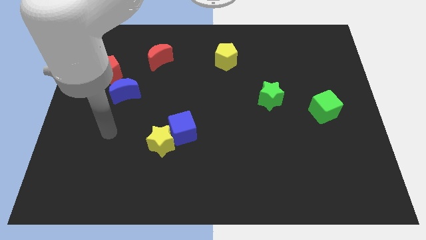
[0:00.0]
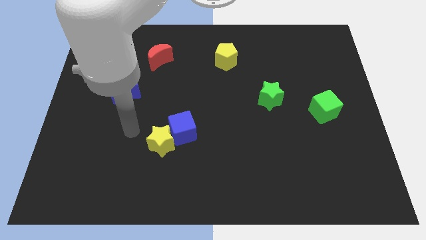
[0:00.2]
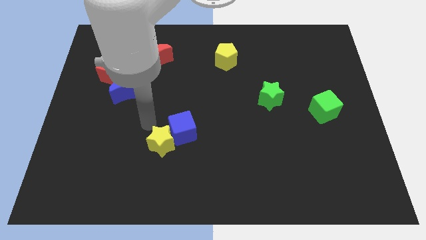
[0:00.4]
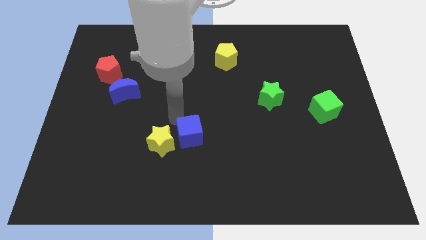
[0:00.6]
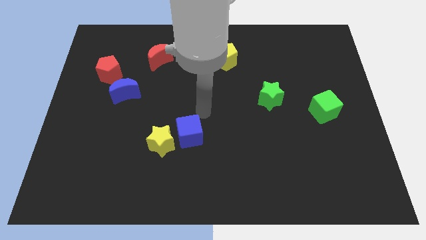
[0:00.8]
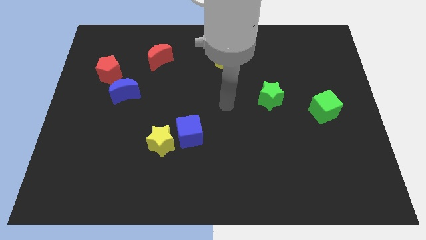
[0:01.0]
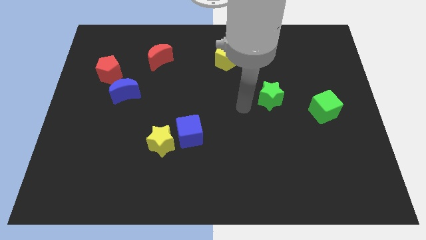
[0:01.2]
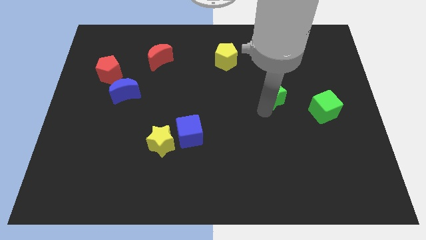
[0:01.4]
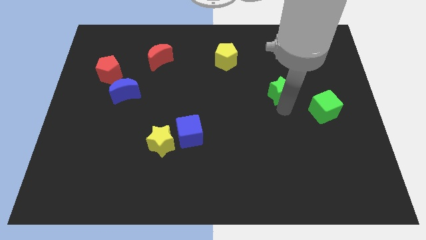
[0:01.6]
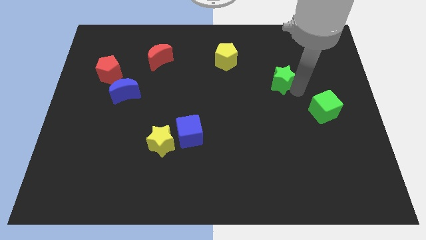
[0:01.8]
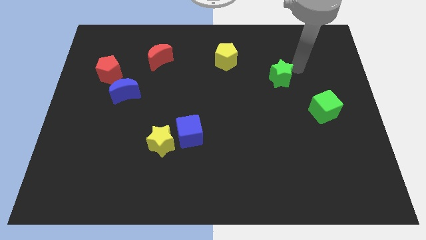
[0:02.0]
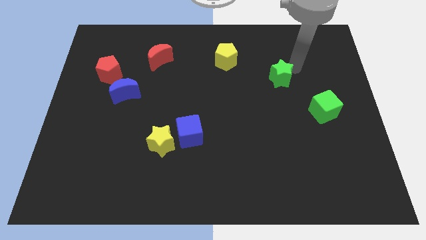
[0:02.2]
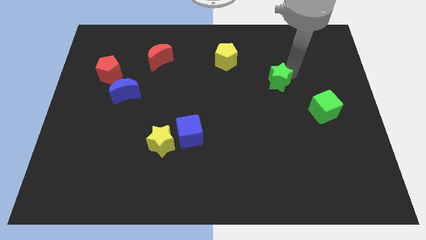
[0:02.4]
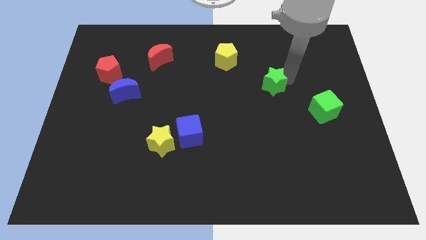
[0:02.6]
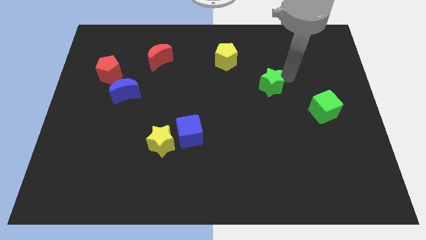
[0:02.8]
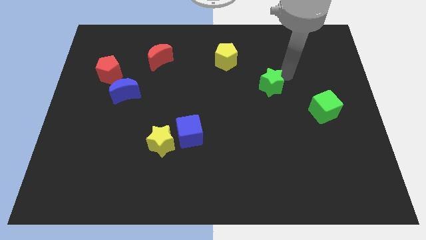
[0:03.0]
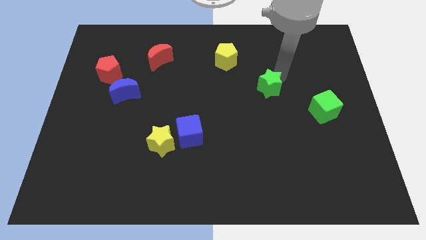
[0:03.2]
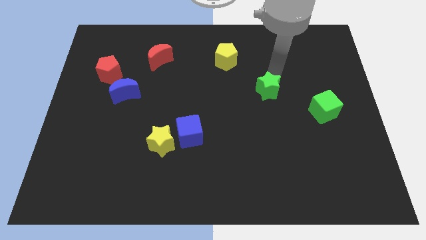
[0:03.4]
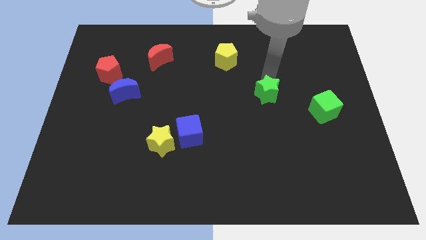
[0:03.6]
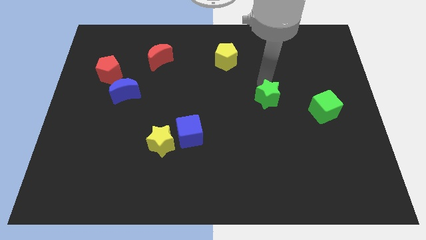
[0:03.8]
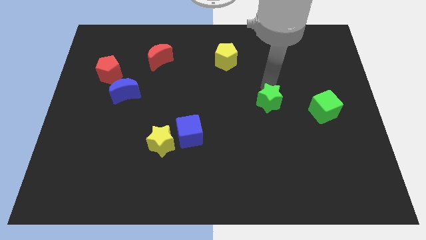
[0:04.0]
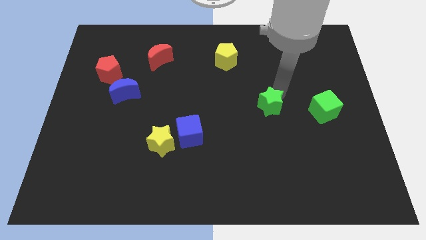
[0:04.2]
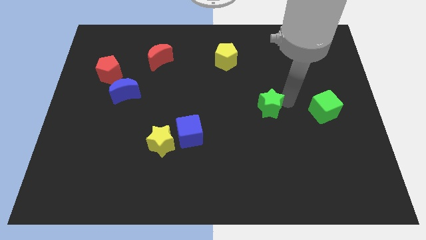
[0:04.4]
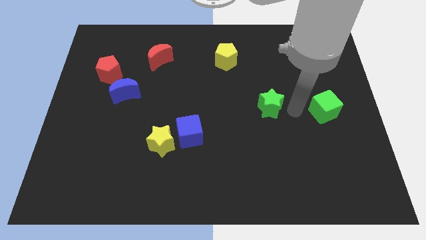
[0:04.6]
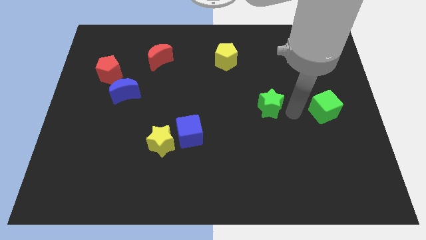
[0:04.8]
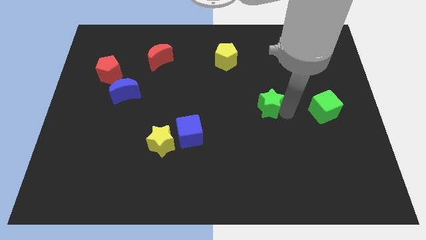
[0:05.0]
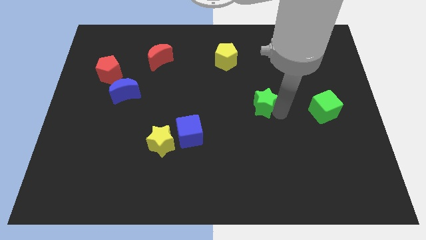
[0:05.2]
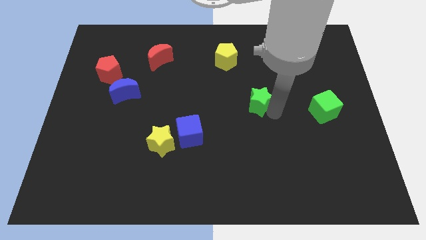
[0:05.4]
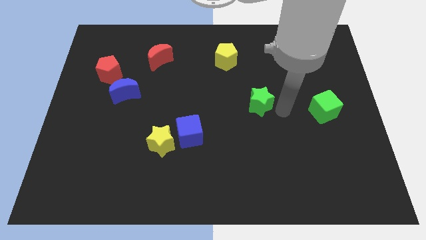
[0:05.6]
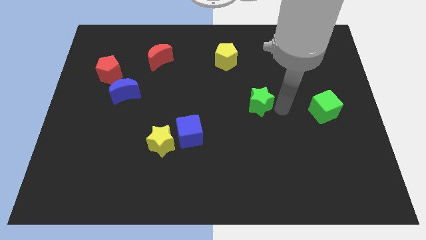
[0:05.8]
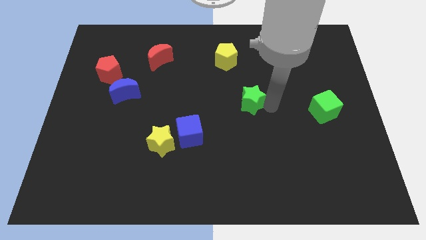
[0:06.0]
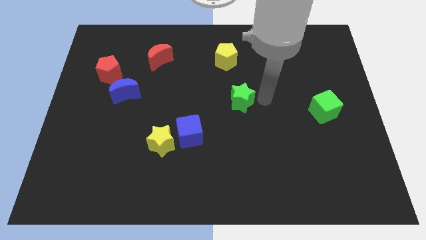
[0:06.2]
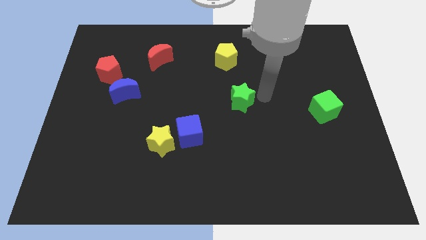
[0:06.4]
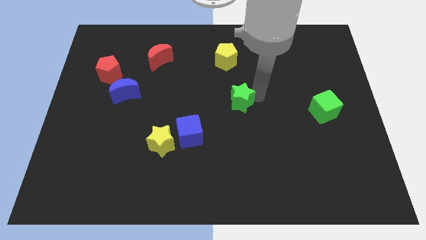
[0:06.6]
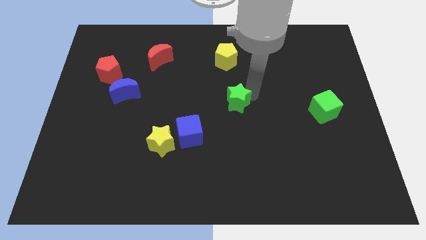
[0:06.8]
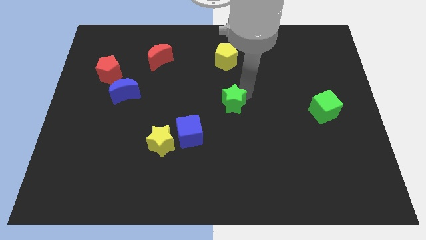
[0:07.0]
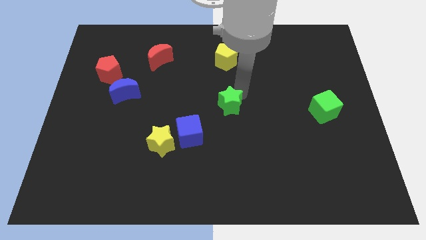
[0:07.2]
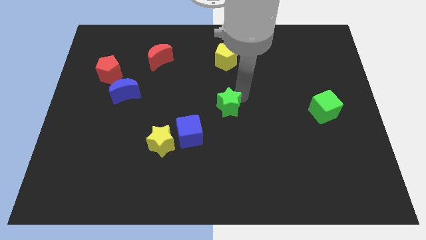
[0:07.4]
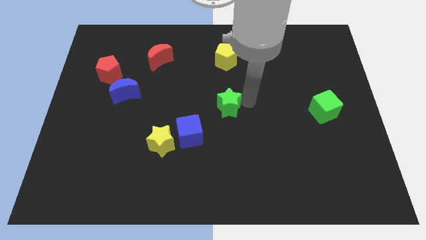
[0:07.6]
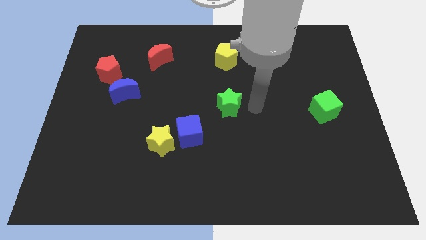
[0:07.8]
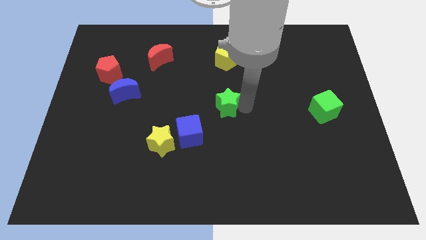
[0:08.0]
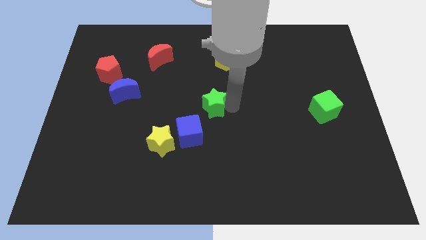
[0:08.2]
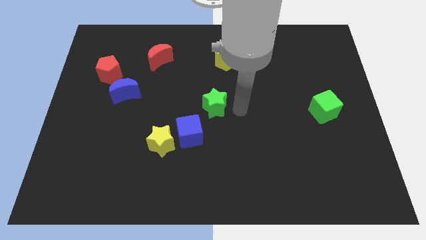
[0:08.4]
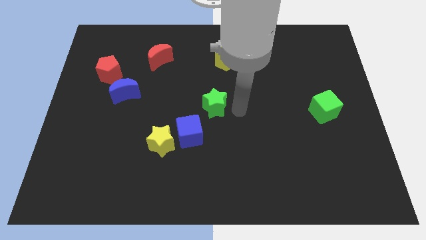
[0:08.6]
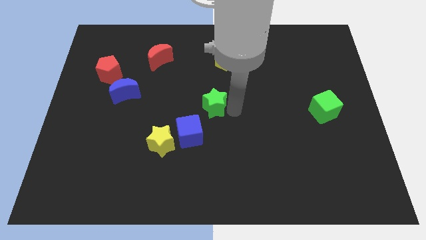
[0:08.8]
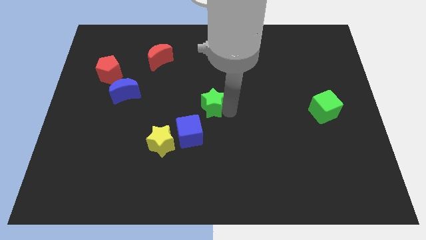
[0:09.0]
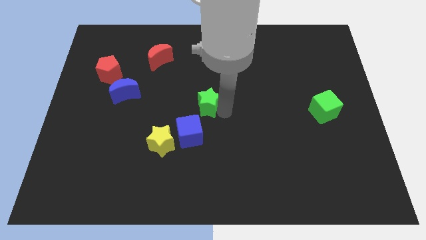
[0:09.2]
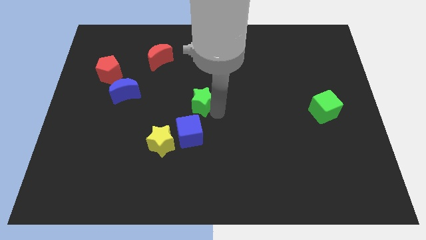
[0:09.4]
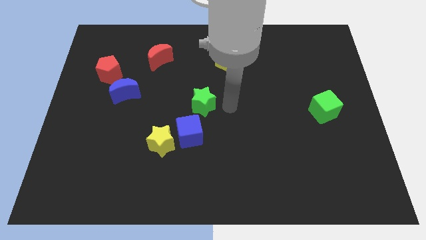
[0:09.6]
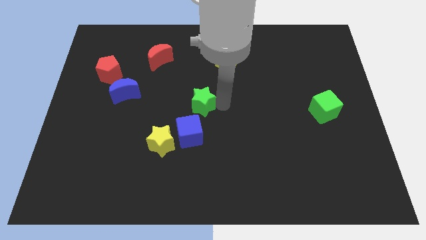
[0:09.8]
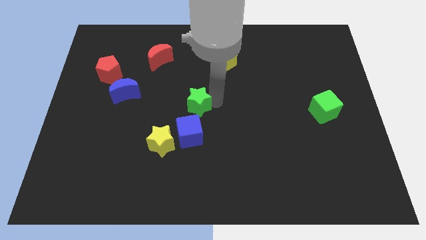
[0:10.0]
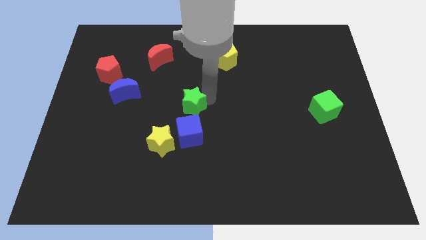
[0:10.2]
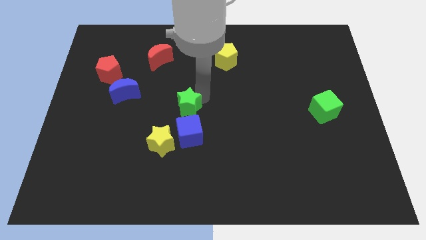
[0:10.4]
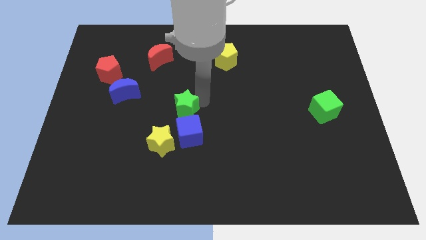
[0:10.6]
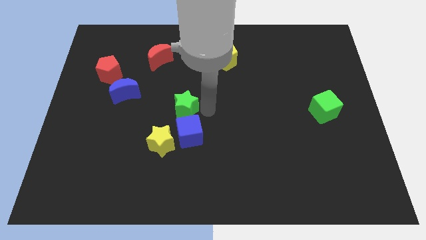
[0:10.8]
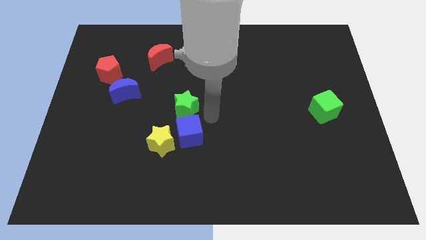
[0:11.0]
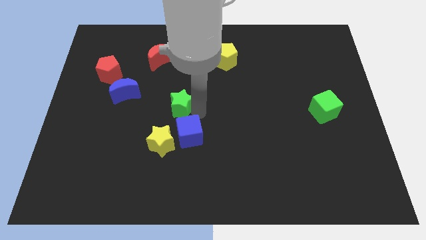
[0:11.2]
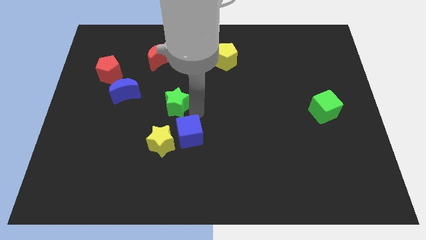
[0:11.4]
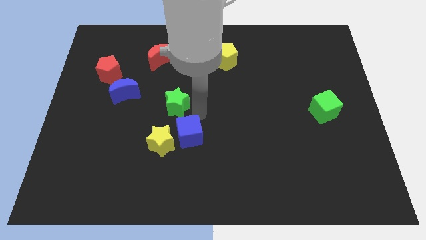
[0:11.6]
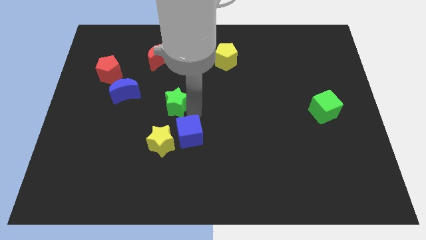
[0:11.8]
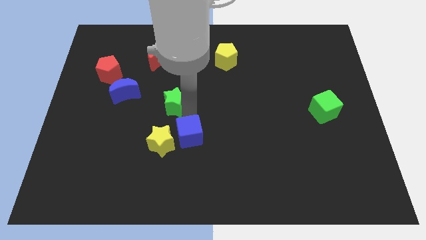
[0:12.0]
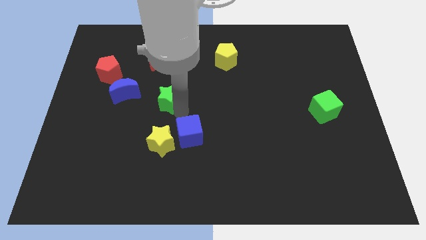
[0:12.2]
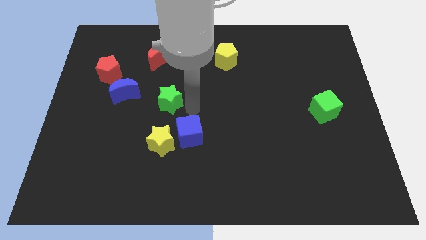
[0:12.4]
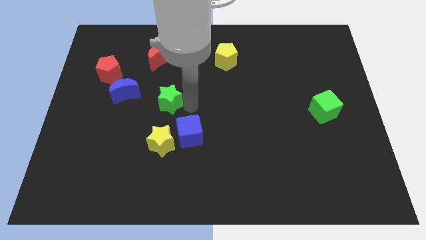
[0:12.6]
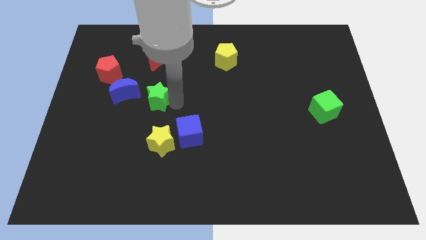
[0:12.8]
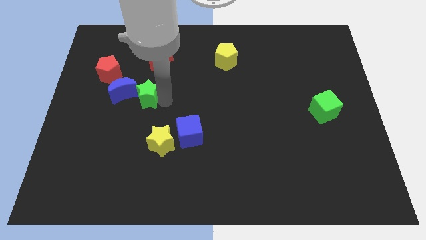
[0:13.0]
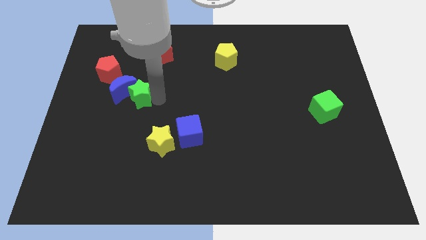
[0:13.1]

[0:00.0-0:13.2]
move the green star next to the blue moon

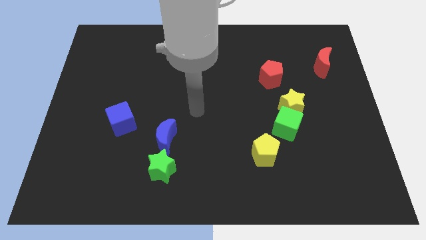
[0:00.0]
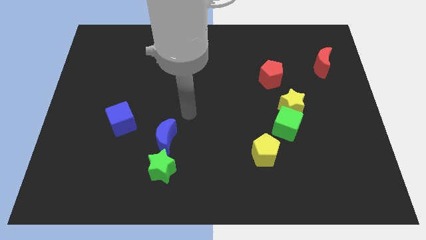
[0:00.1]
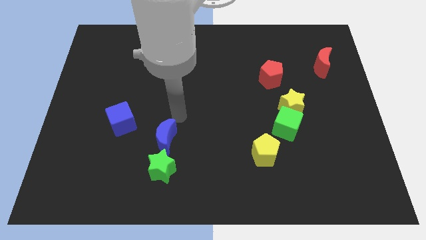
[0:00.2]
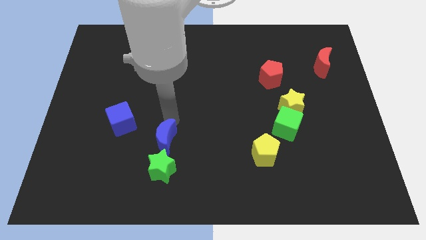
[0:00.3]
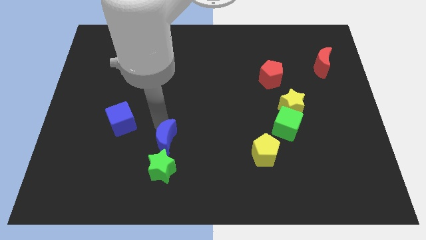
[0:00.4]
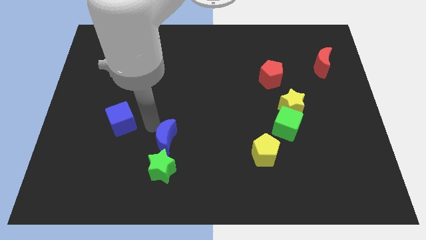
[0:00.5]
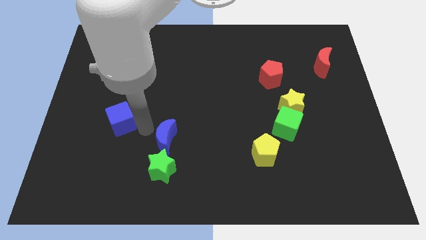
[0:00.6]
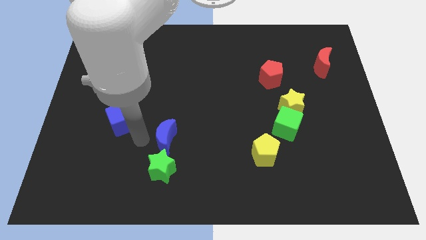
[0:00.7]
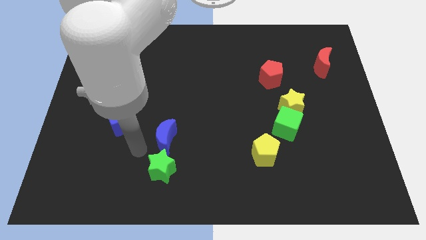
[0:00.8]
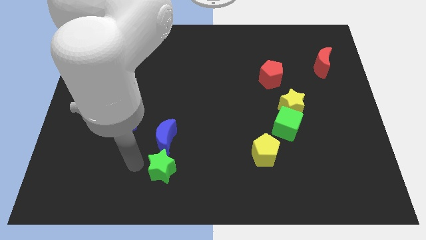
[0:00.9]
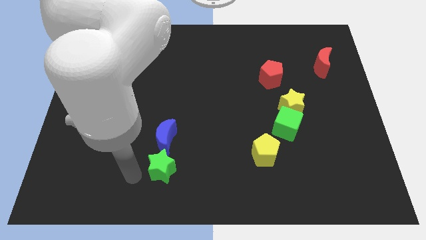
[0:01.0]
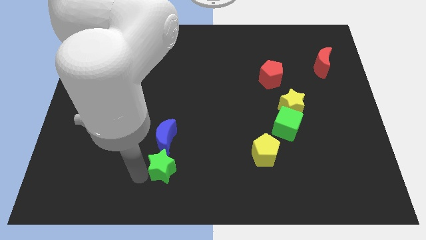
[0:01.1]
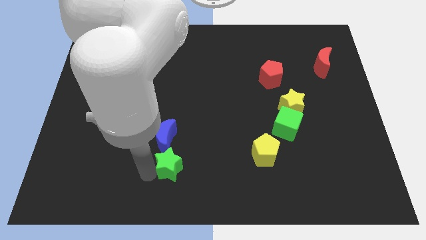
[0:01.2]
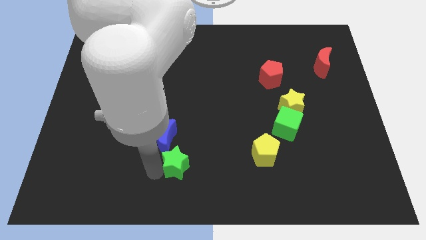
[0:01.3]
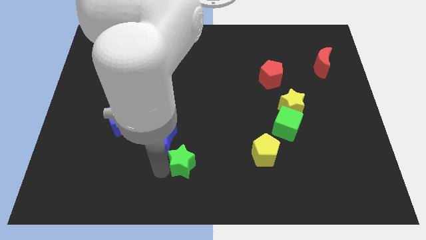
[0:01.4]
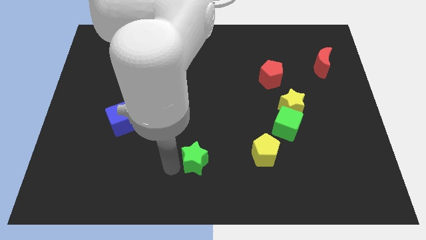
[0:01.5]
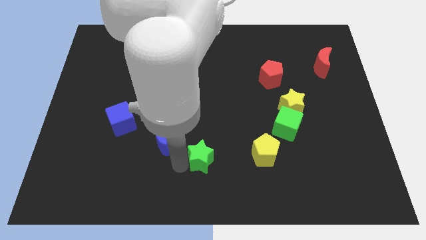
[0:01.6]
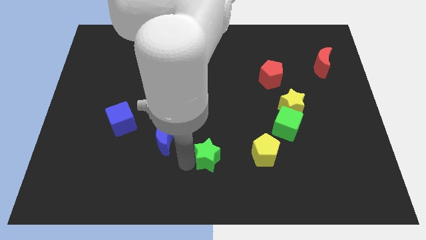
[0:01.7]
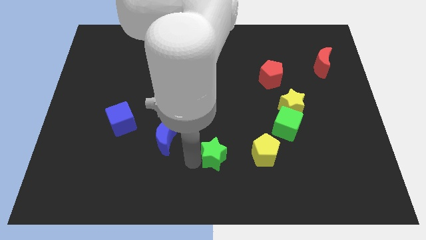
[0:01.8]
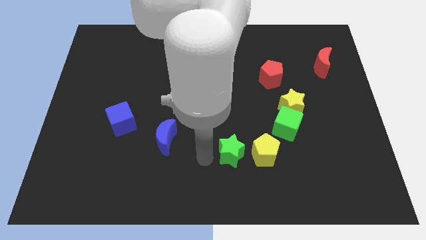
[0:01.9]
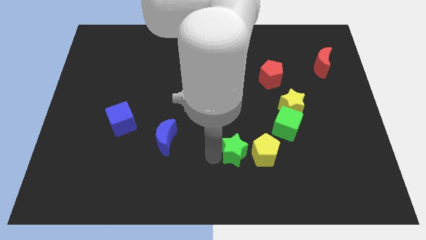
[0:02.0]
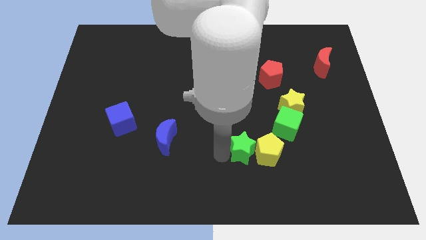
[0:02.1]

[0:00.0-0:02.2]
push the green star to the yellow pentagon
